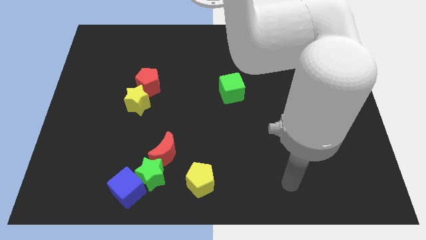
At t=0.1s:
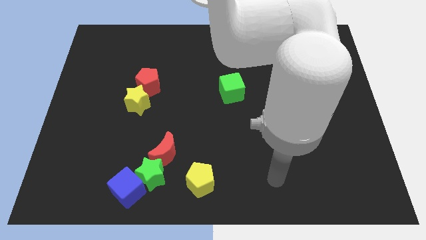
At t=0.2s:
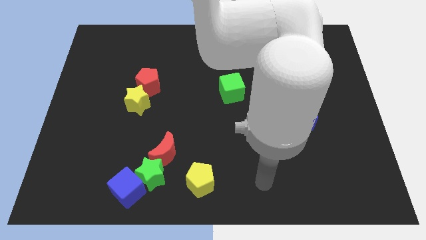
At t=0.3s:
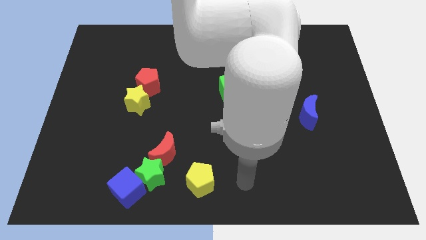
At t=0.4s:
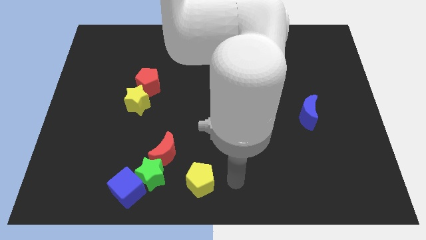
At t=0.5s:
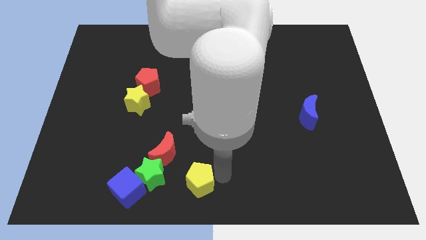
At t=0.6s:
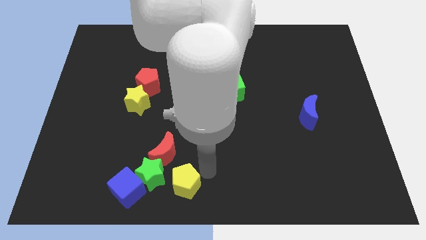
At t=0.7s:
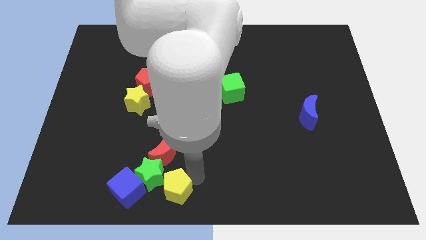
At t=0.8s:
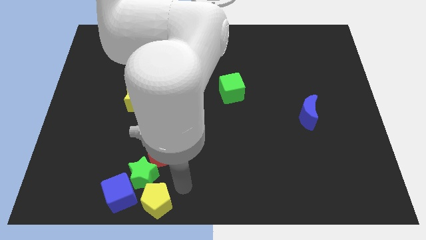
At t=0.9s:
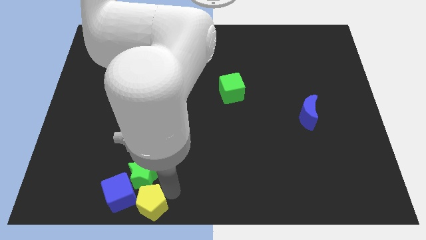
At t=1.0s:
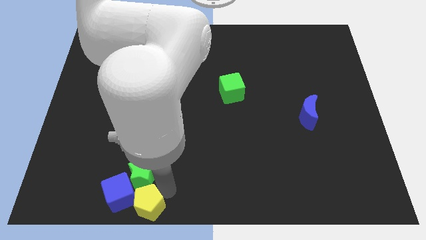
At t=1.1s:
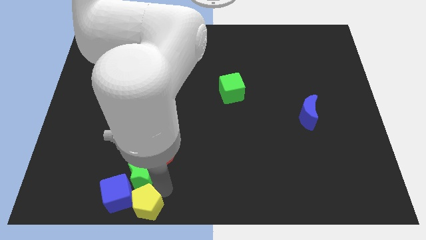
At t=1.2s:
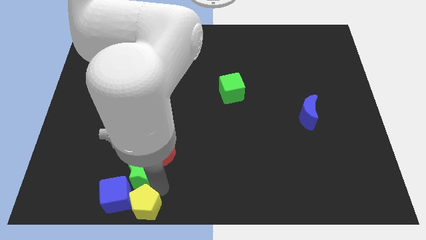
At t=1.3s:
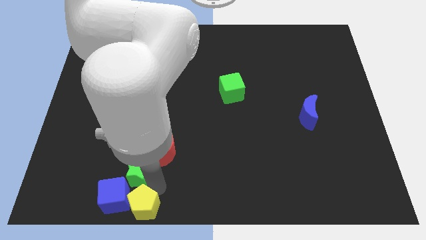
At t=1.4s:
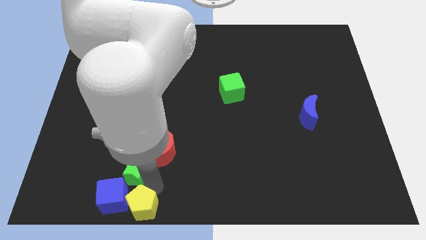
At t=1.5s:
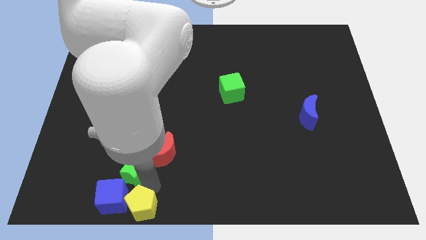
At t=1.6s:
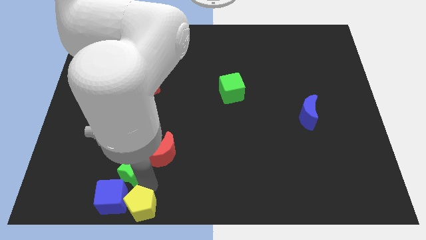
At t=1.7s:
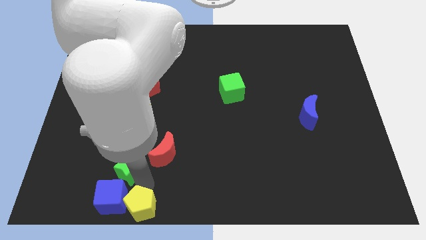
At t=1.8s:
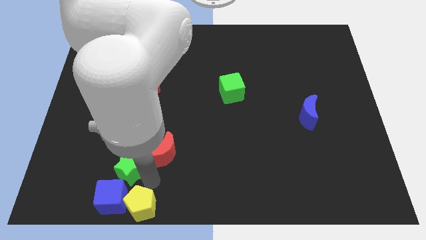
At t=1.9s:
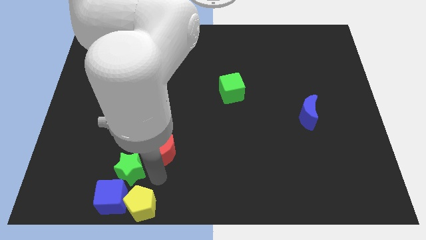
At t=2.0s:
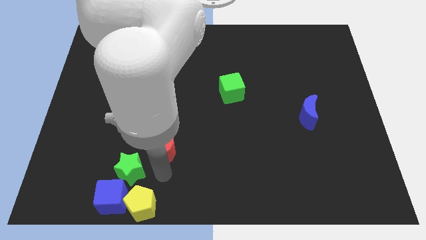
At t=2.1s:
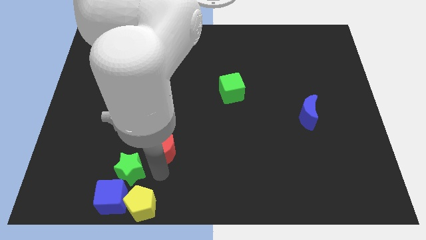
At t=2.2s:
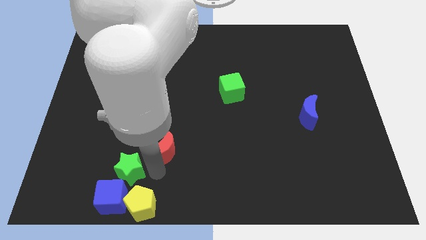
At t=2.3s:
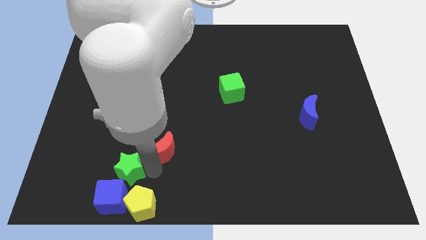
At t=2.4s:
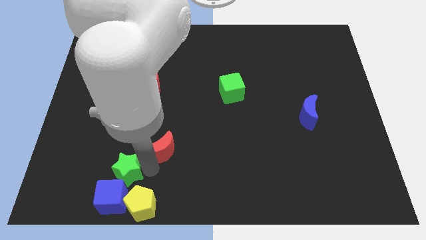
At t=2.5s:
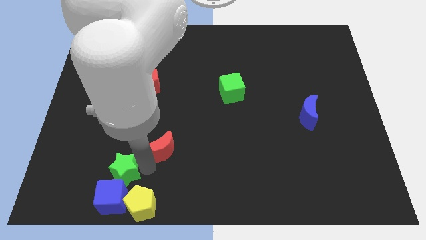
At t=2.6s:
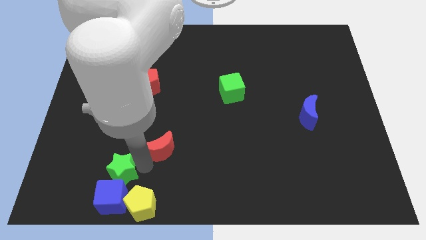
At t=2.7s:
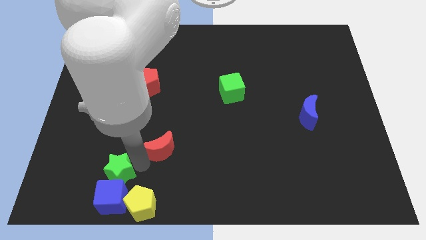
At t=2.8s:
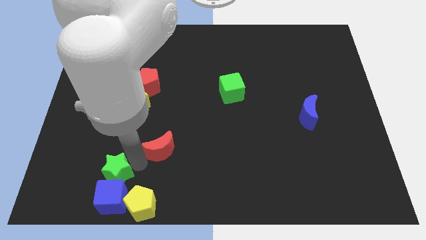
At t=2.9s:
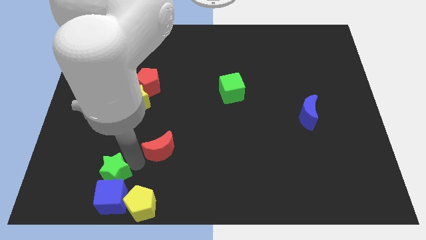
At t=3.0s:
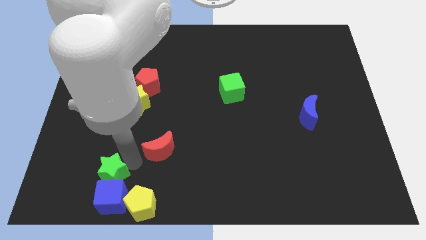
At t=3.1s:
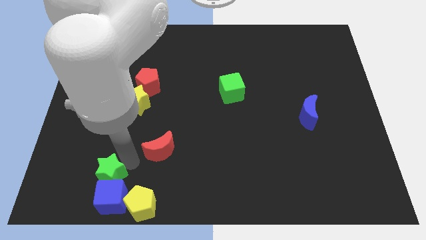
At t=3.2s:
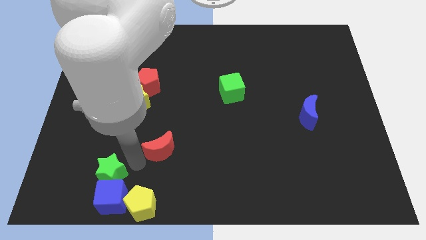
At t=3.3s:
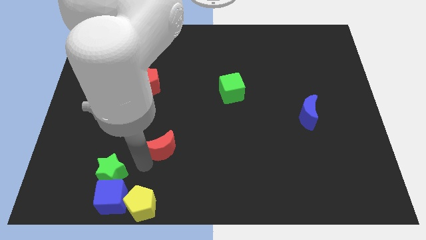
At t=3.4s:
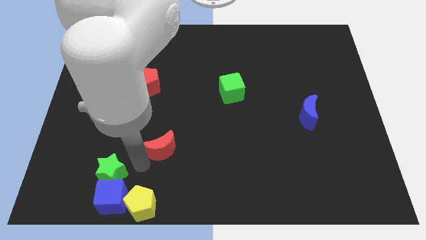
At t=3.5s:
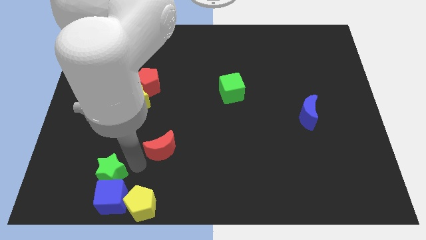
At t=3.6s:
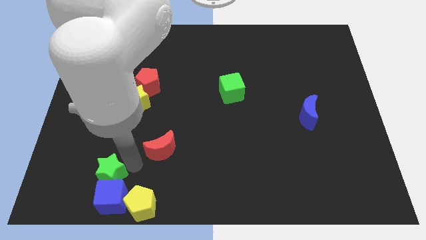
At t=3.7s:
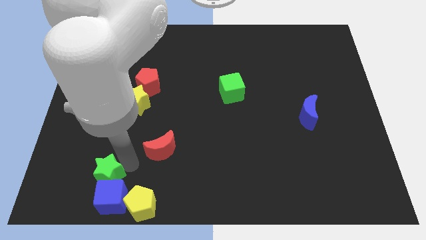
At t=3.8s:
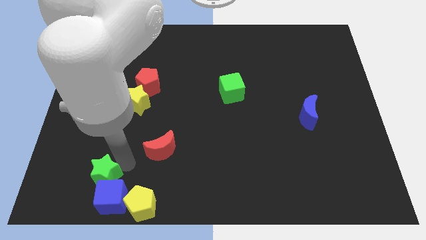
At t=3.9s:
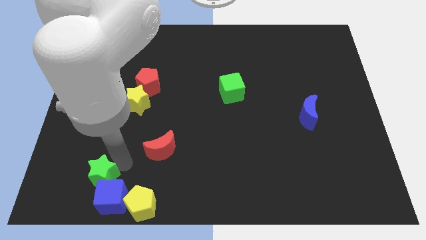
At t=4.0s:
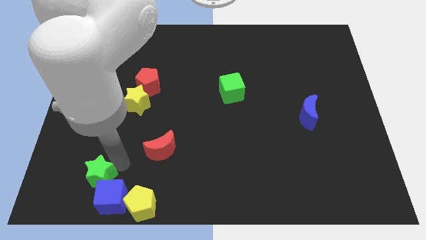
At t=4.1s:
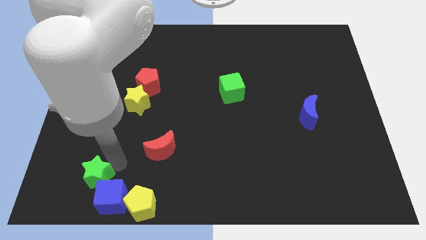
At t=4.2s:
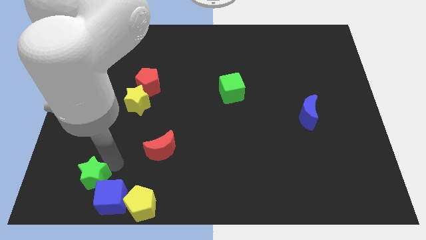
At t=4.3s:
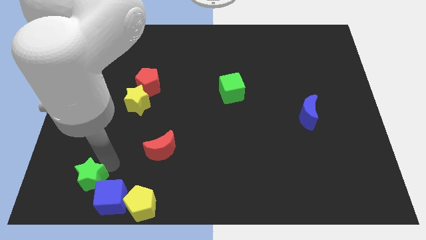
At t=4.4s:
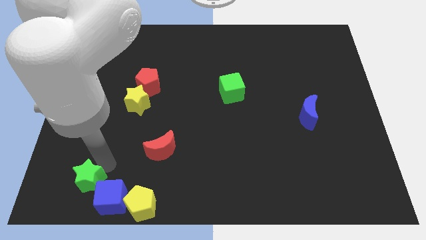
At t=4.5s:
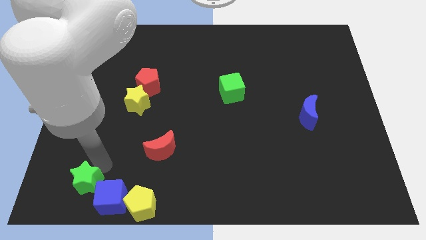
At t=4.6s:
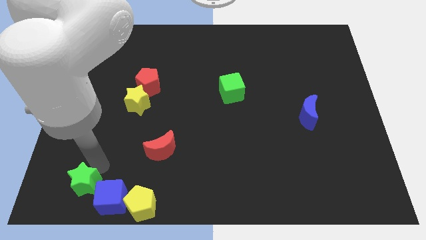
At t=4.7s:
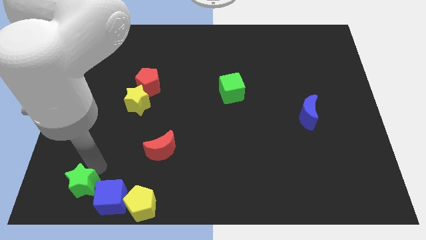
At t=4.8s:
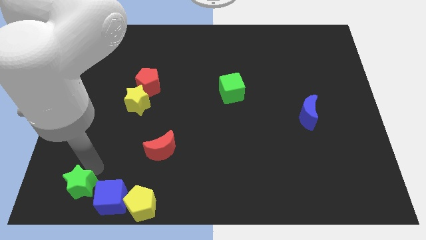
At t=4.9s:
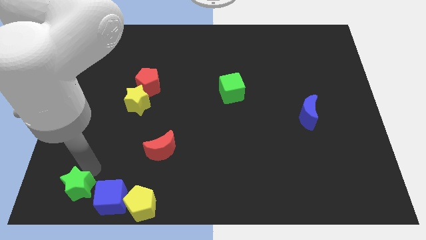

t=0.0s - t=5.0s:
put the green star to the lower left corner

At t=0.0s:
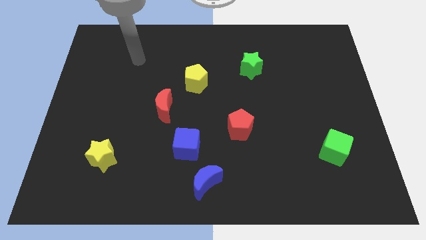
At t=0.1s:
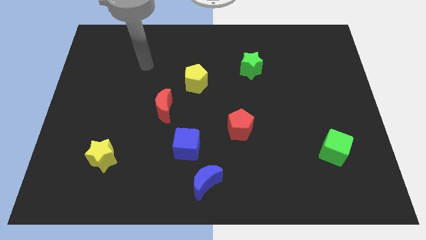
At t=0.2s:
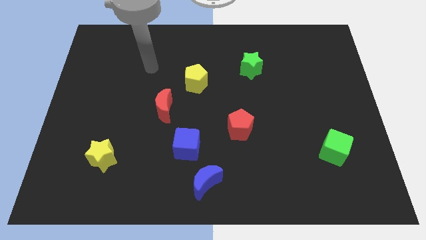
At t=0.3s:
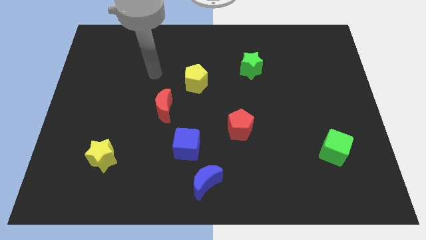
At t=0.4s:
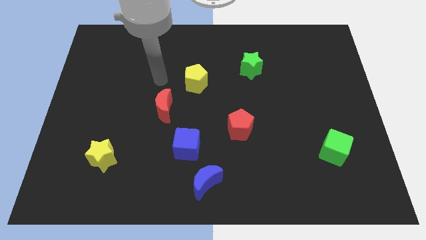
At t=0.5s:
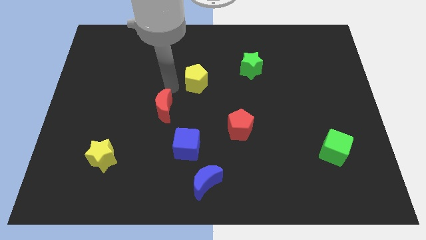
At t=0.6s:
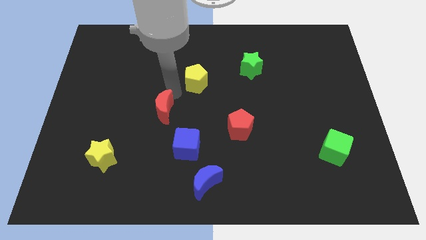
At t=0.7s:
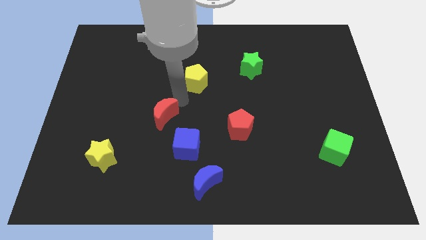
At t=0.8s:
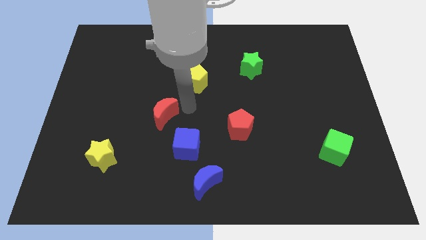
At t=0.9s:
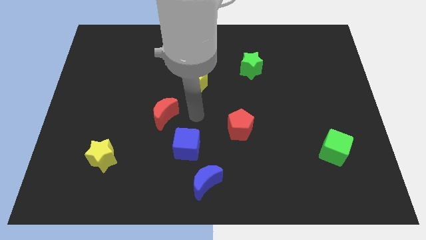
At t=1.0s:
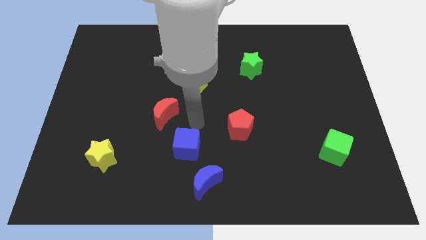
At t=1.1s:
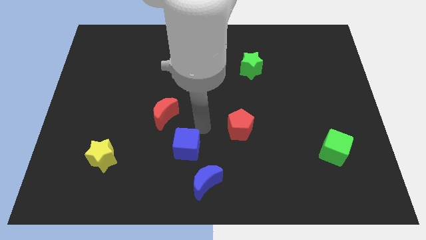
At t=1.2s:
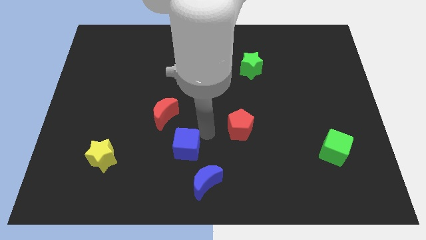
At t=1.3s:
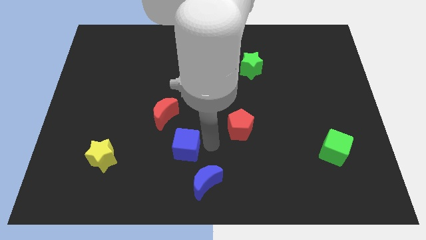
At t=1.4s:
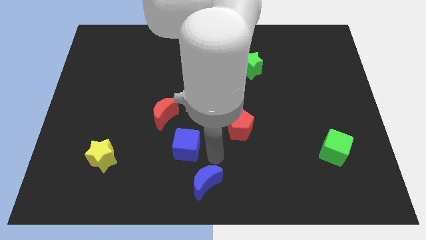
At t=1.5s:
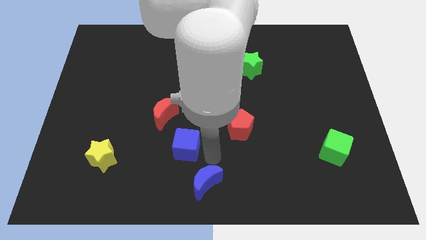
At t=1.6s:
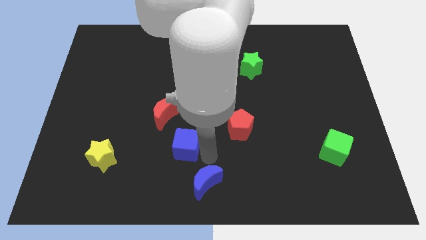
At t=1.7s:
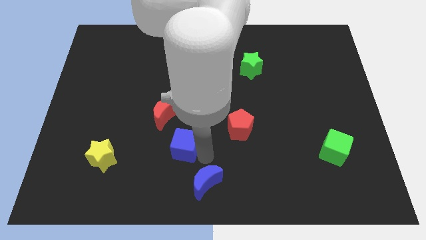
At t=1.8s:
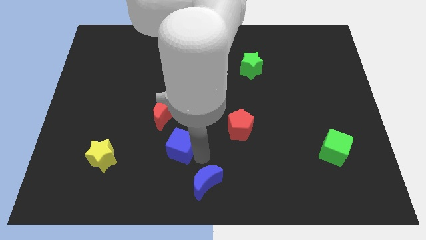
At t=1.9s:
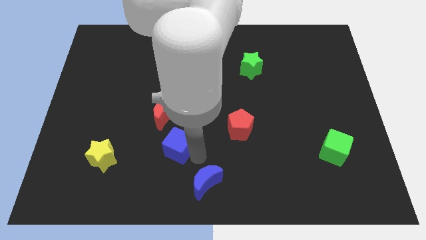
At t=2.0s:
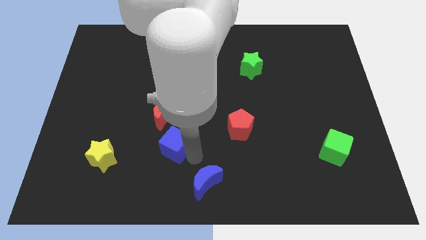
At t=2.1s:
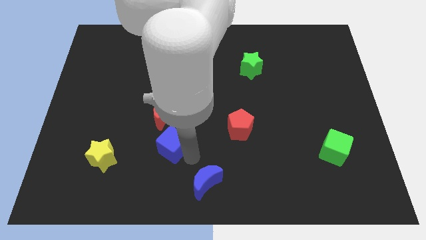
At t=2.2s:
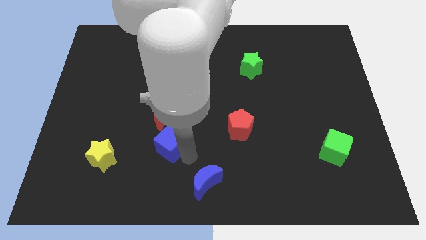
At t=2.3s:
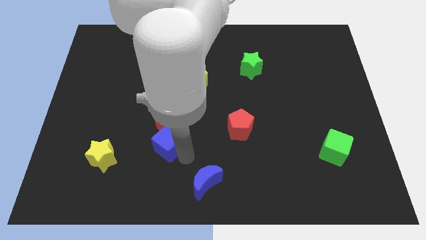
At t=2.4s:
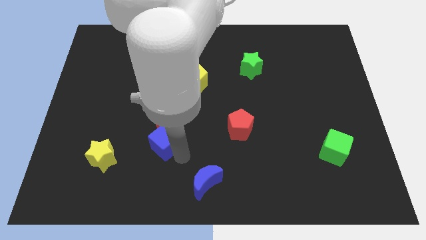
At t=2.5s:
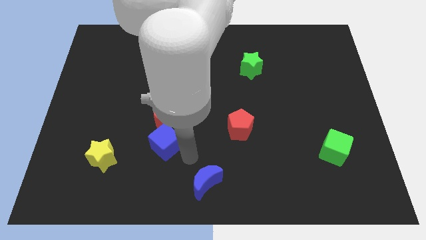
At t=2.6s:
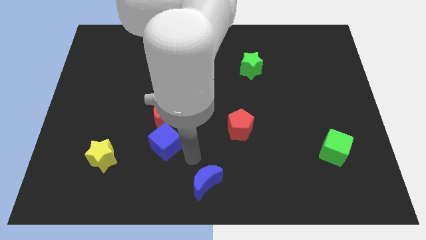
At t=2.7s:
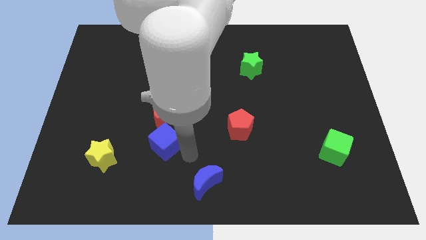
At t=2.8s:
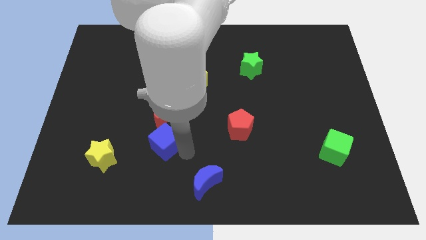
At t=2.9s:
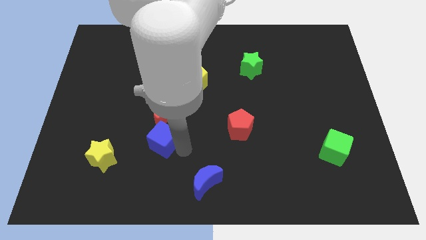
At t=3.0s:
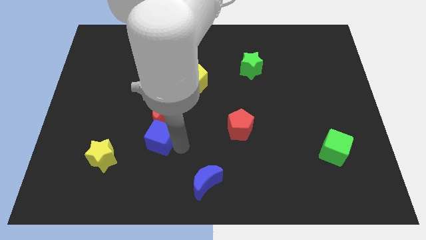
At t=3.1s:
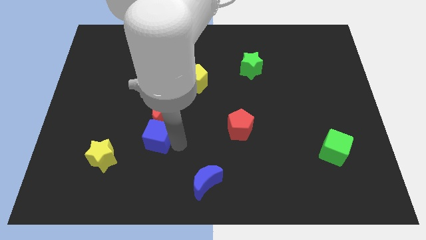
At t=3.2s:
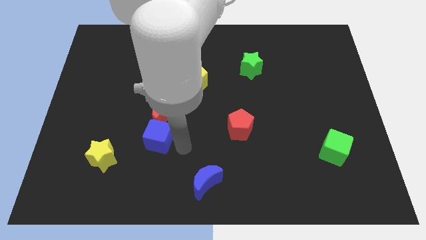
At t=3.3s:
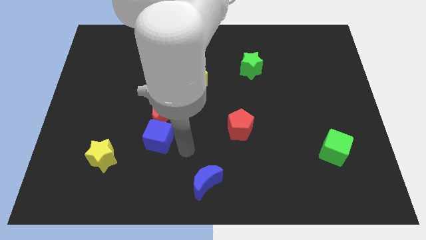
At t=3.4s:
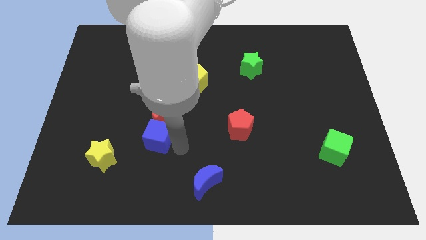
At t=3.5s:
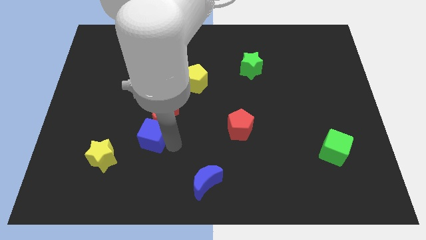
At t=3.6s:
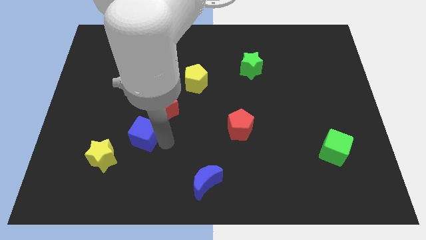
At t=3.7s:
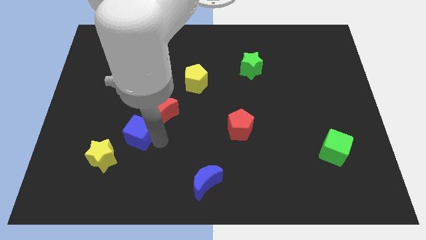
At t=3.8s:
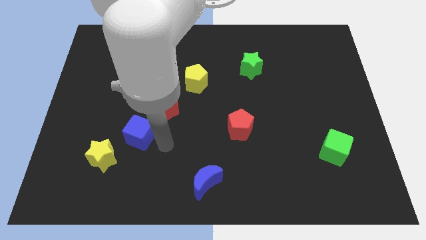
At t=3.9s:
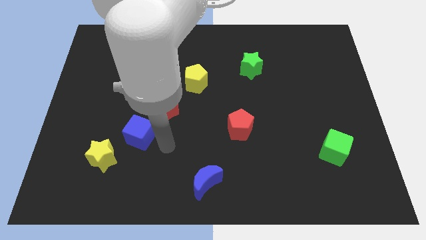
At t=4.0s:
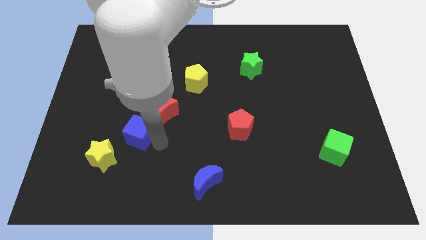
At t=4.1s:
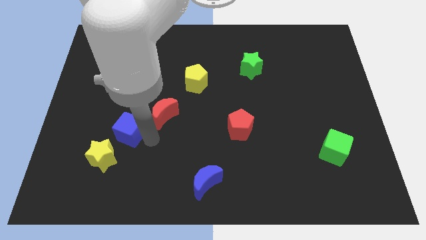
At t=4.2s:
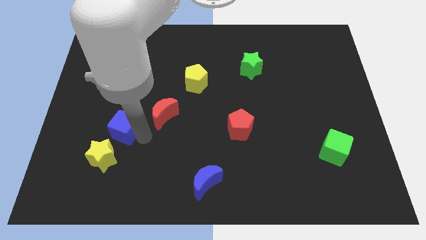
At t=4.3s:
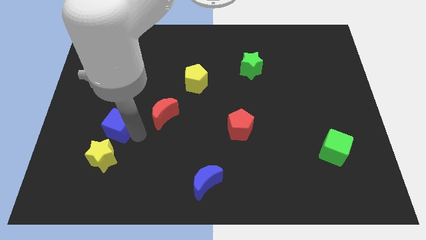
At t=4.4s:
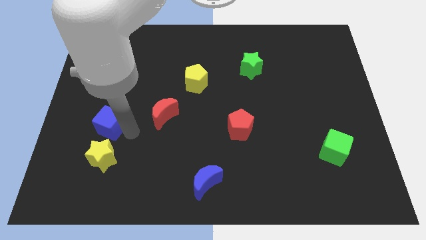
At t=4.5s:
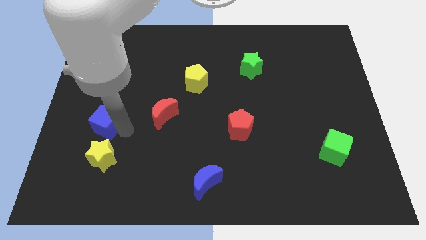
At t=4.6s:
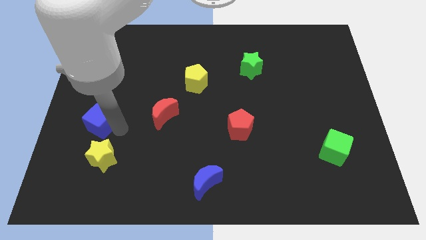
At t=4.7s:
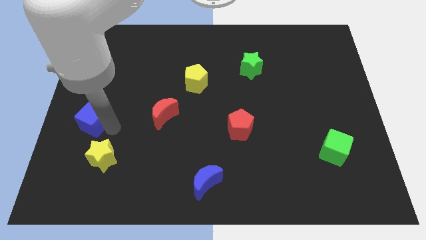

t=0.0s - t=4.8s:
put the blue cube to the left side
